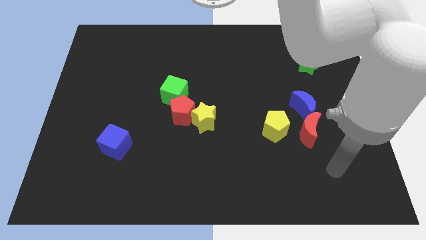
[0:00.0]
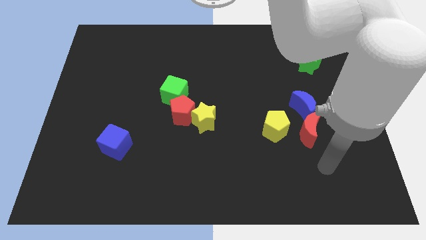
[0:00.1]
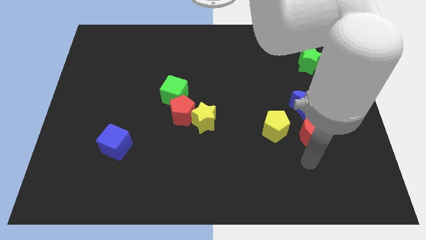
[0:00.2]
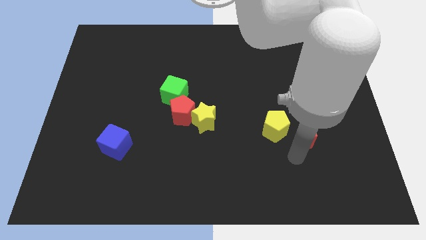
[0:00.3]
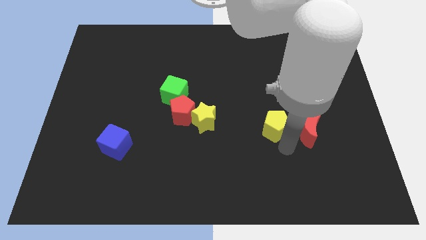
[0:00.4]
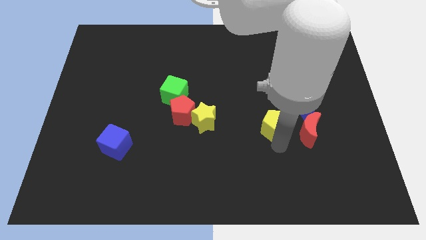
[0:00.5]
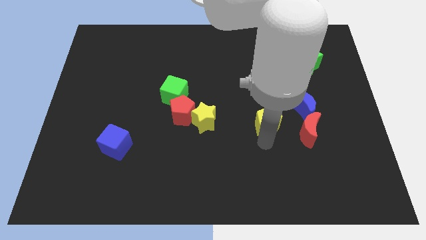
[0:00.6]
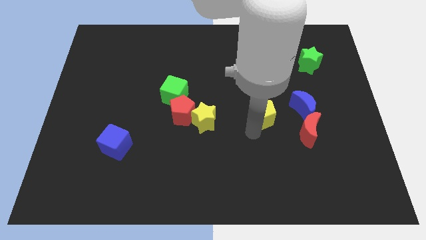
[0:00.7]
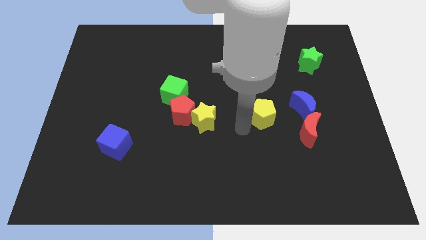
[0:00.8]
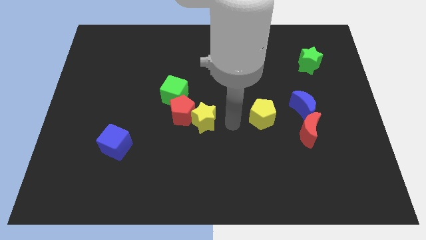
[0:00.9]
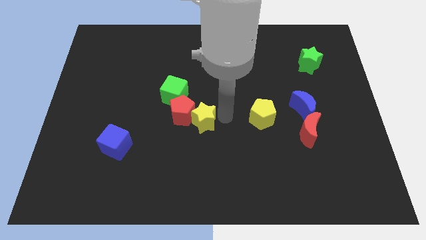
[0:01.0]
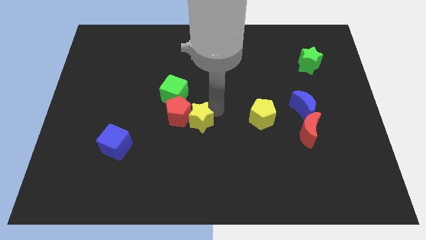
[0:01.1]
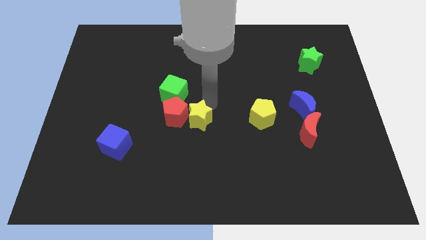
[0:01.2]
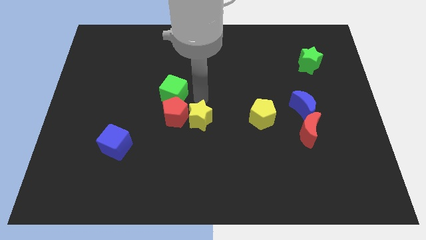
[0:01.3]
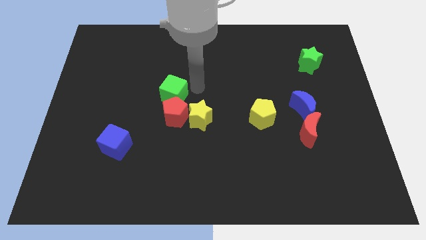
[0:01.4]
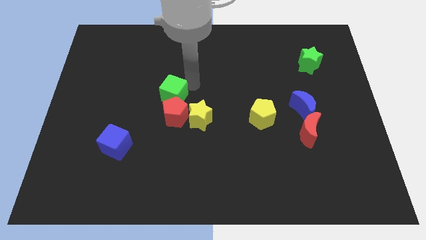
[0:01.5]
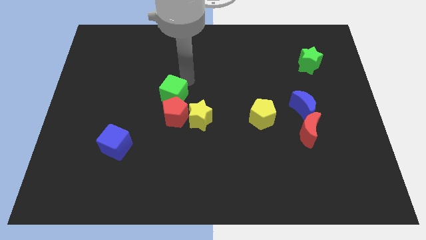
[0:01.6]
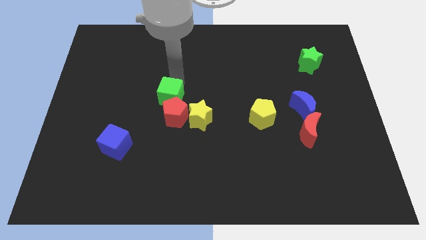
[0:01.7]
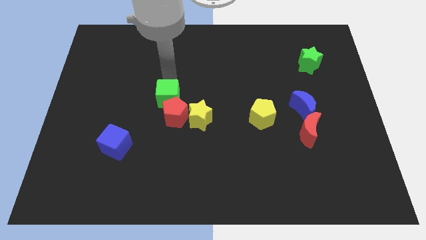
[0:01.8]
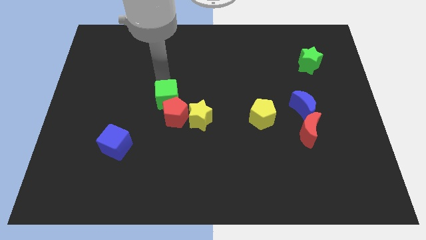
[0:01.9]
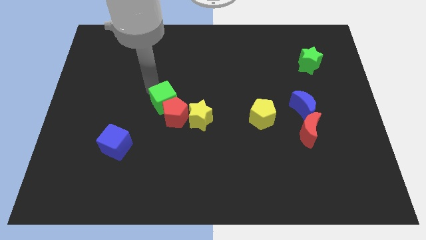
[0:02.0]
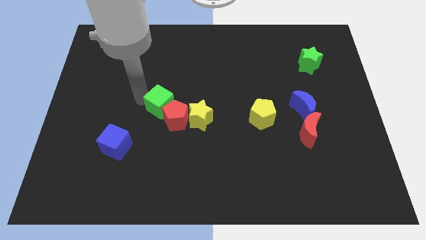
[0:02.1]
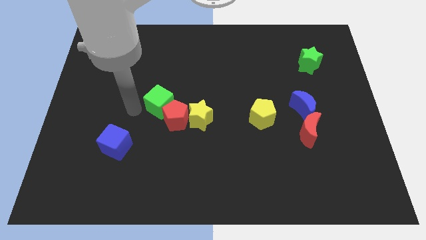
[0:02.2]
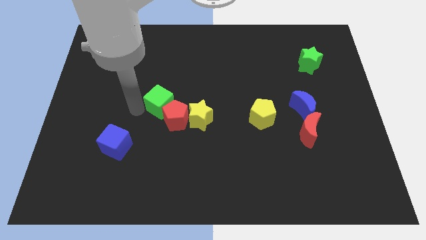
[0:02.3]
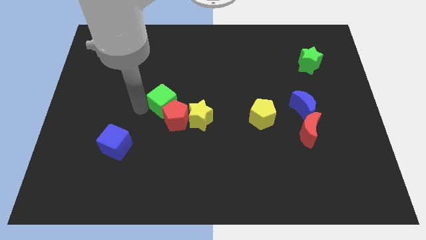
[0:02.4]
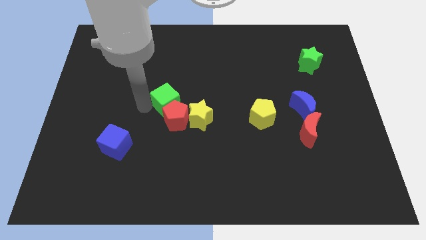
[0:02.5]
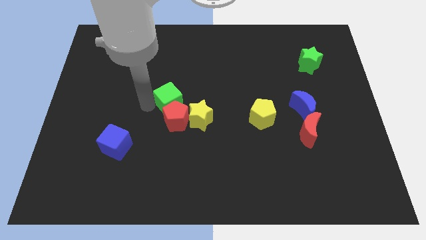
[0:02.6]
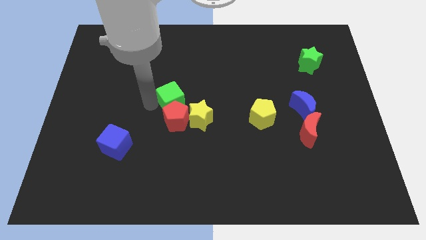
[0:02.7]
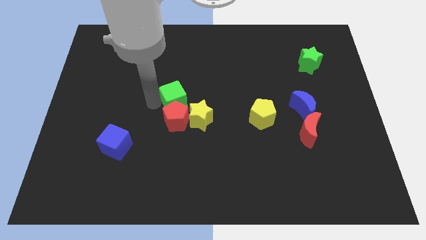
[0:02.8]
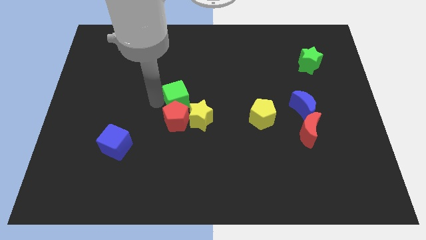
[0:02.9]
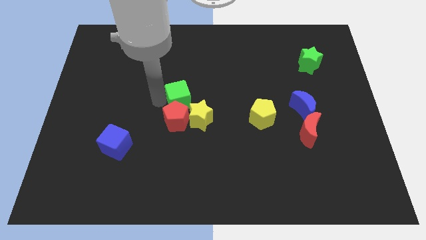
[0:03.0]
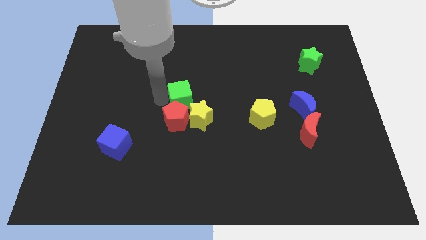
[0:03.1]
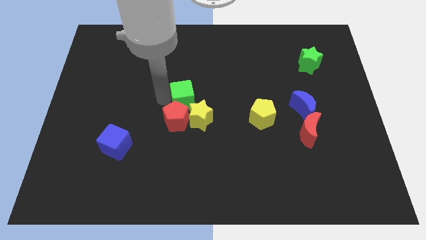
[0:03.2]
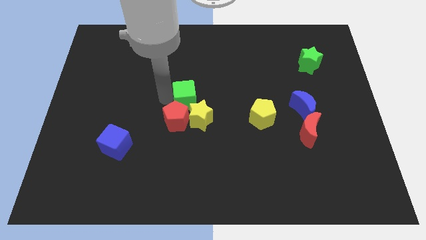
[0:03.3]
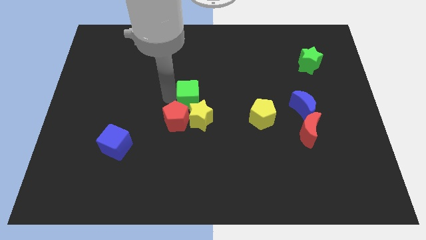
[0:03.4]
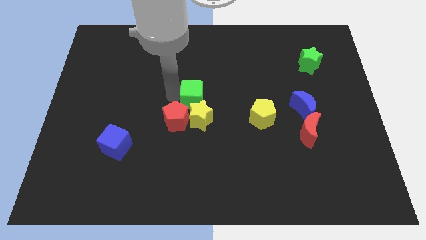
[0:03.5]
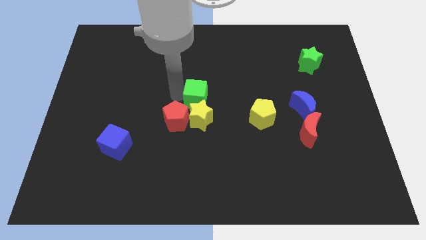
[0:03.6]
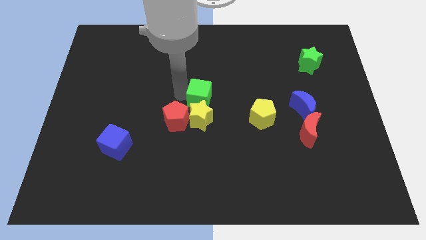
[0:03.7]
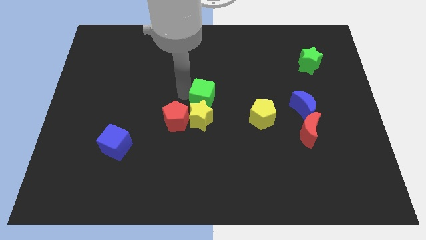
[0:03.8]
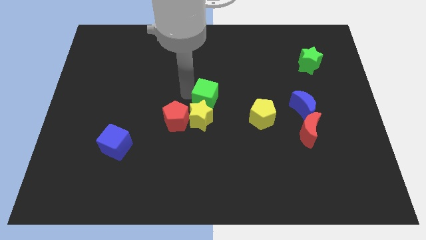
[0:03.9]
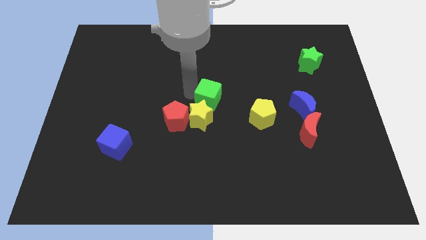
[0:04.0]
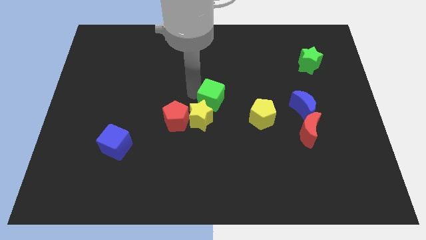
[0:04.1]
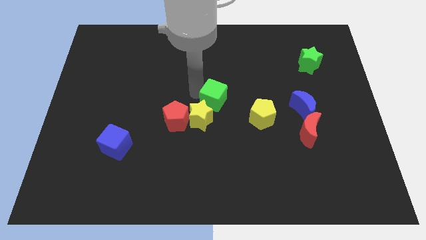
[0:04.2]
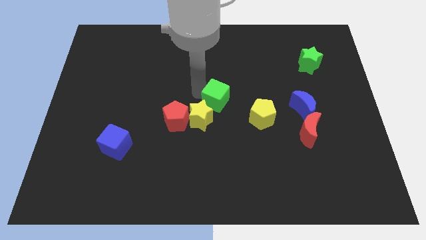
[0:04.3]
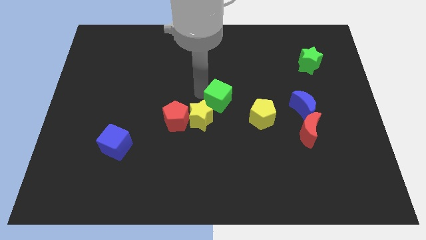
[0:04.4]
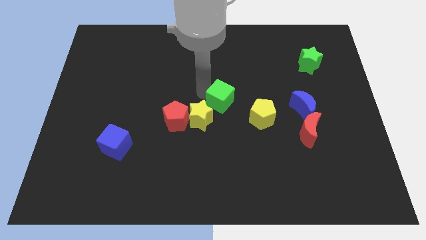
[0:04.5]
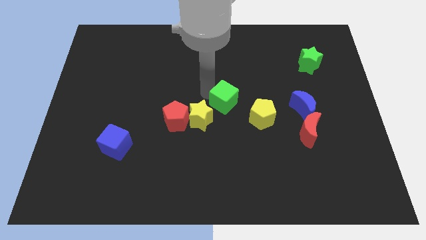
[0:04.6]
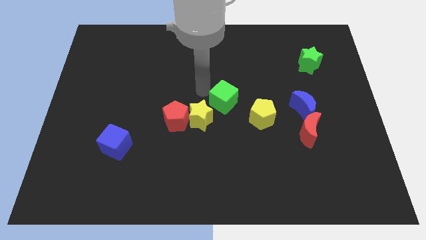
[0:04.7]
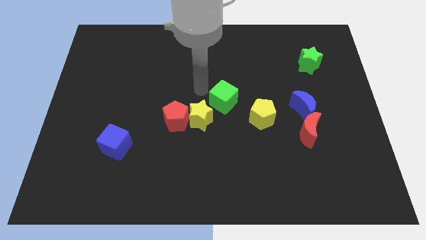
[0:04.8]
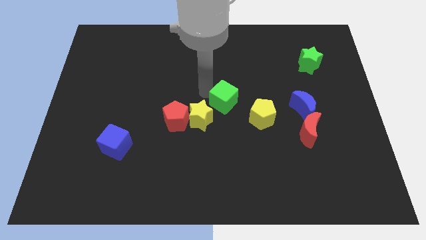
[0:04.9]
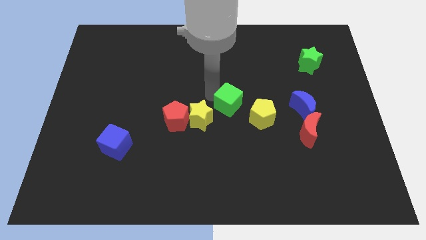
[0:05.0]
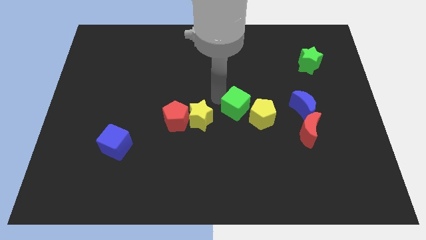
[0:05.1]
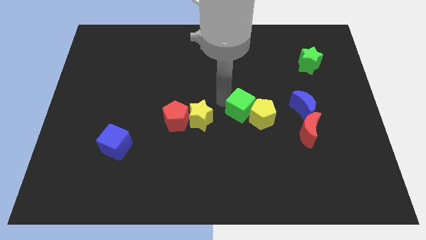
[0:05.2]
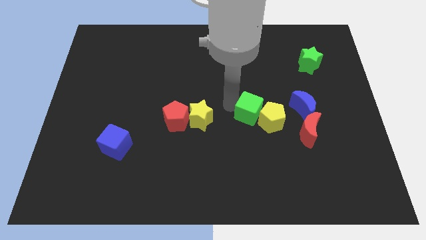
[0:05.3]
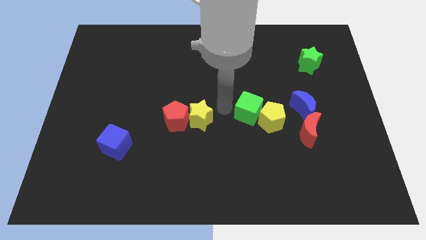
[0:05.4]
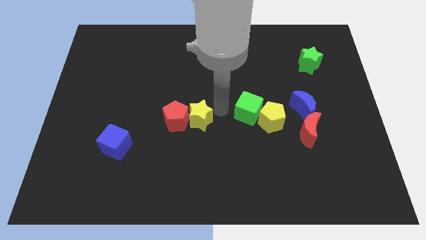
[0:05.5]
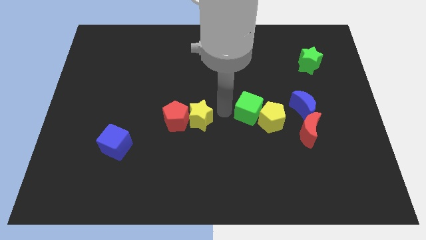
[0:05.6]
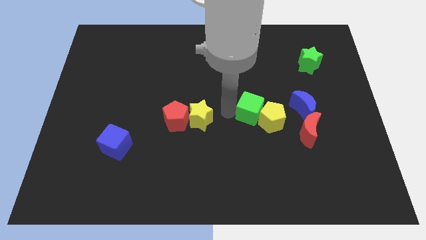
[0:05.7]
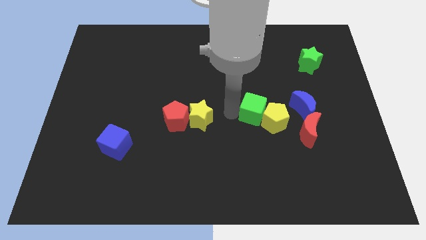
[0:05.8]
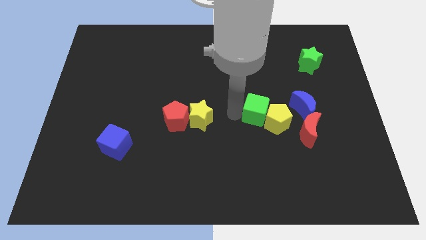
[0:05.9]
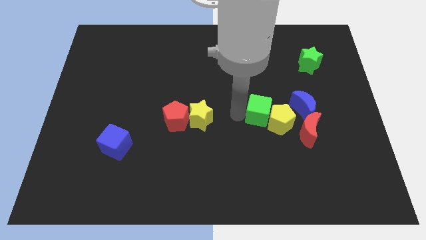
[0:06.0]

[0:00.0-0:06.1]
slide the green cube to the top left of the red moon
